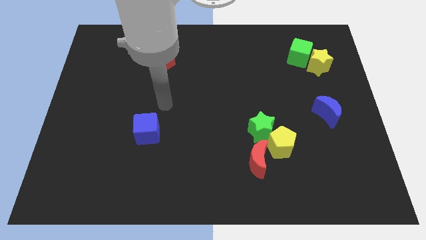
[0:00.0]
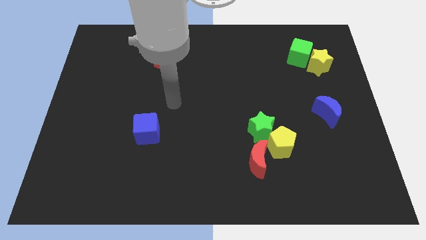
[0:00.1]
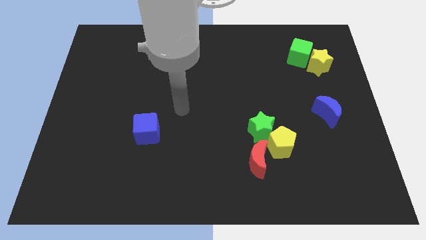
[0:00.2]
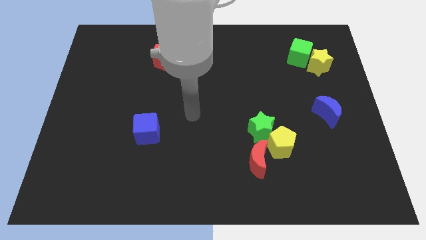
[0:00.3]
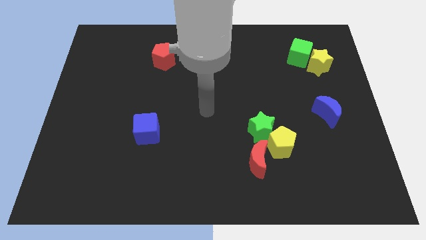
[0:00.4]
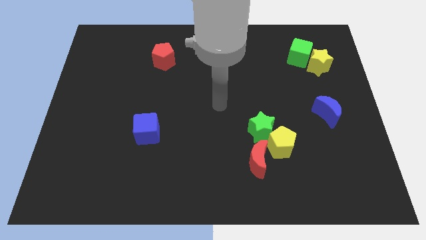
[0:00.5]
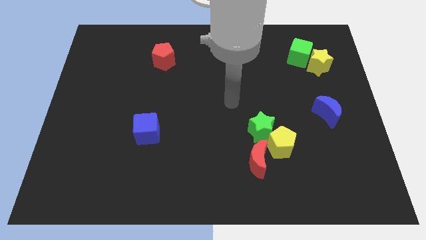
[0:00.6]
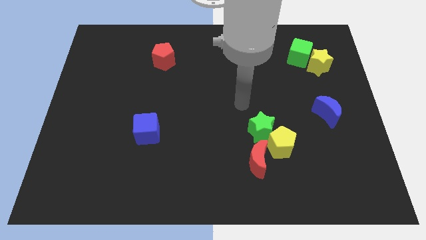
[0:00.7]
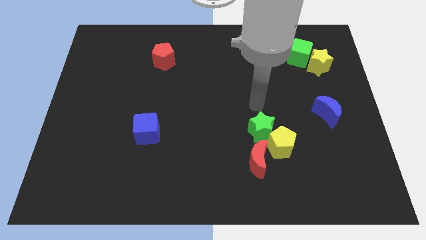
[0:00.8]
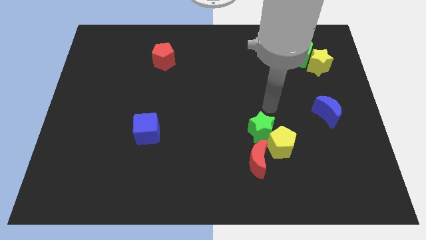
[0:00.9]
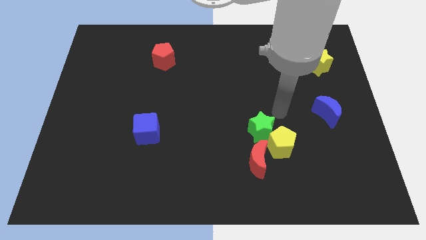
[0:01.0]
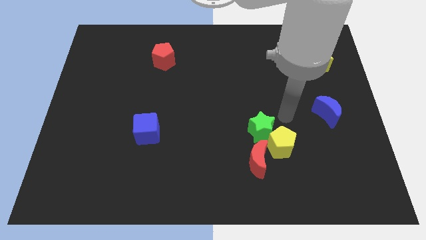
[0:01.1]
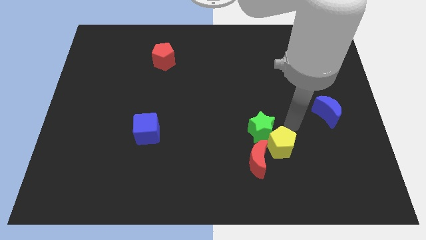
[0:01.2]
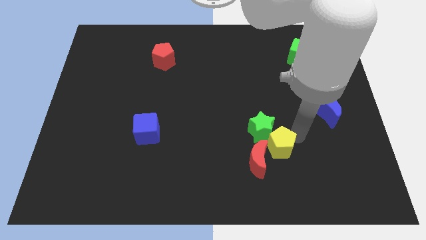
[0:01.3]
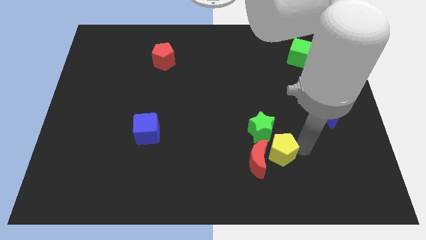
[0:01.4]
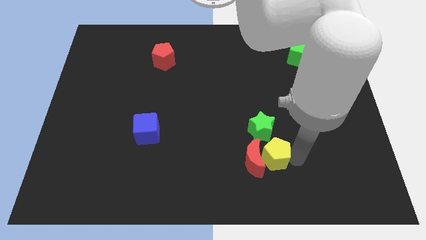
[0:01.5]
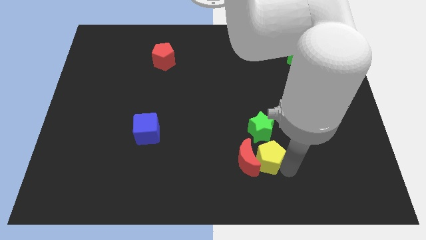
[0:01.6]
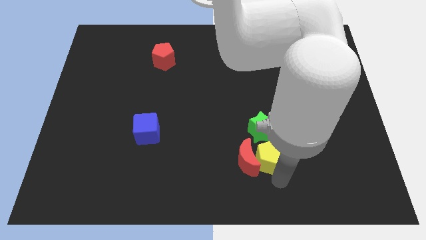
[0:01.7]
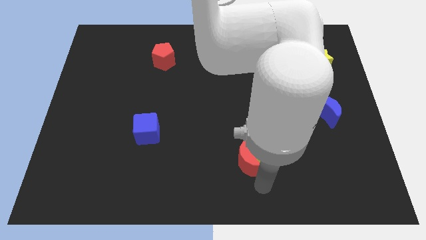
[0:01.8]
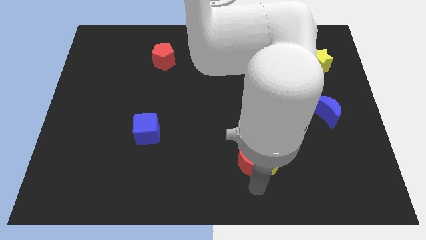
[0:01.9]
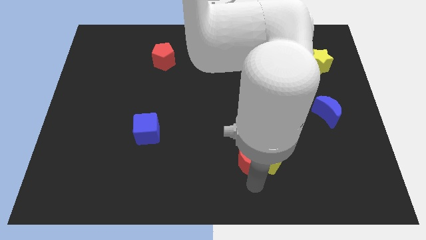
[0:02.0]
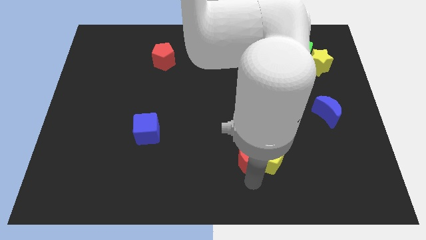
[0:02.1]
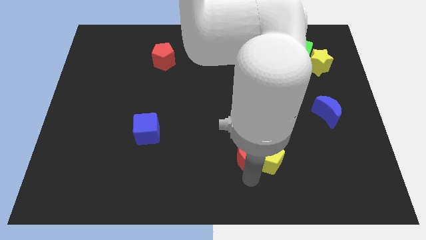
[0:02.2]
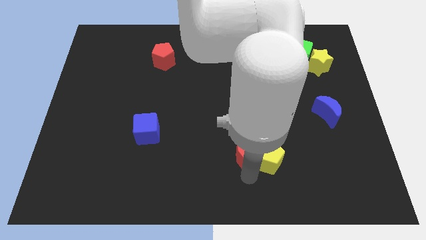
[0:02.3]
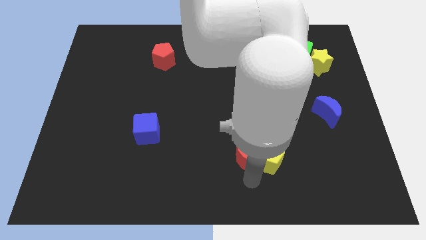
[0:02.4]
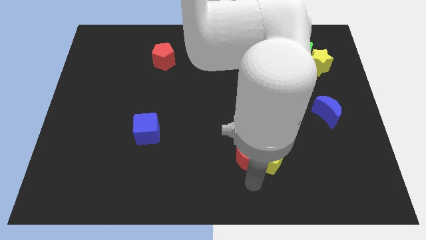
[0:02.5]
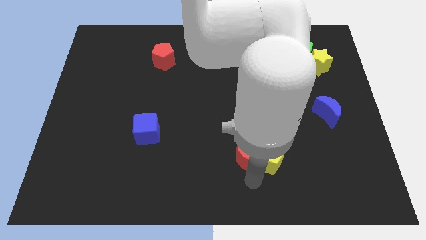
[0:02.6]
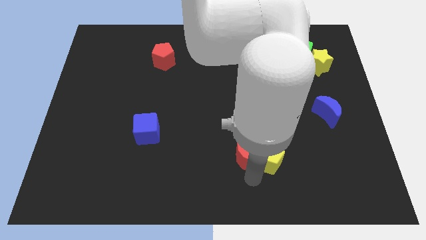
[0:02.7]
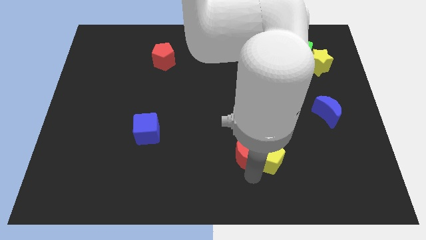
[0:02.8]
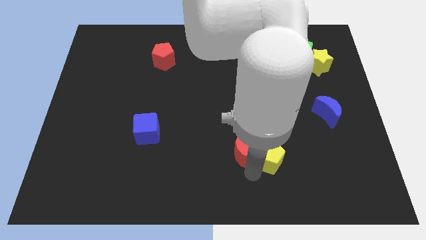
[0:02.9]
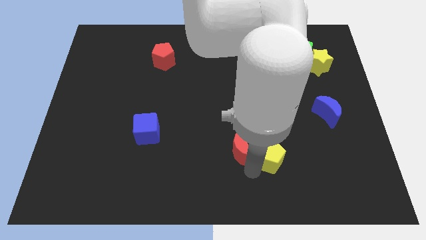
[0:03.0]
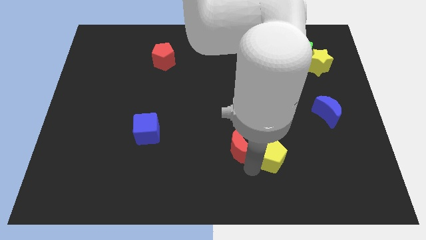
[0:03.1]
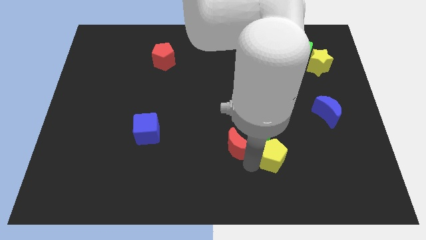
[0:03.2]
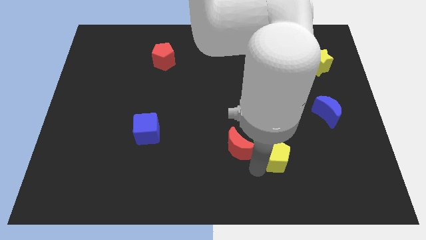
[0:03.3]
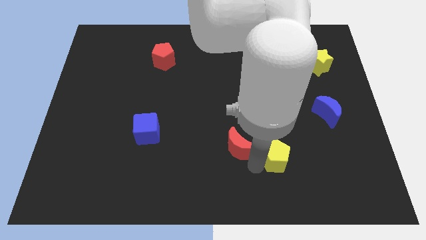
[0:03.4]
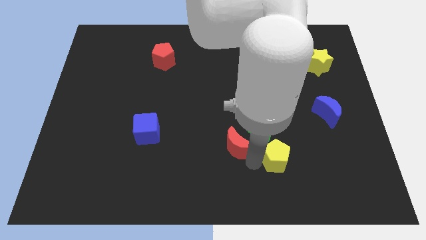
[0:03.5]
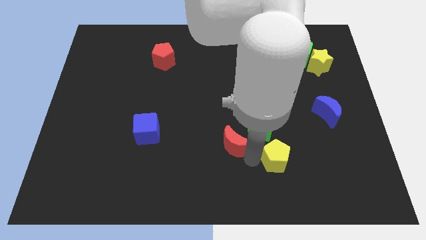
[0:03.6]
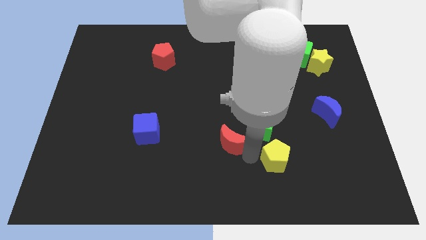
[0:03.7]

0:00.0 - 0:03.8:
push the red moon diagonally up and left somewhat

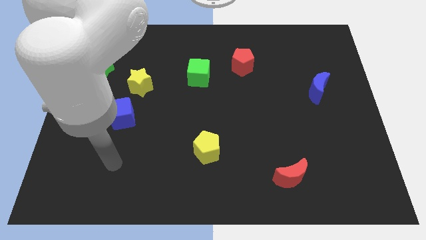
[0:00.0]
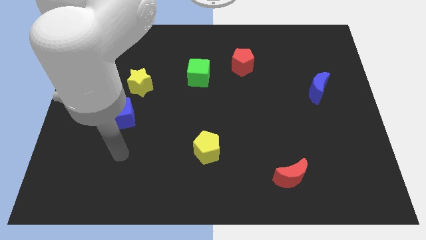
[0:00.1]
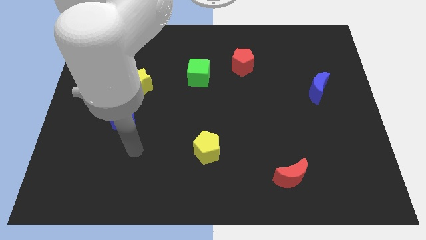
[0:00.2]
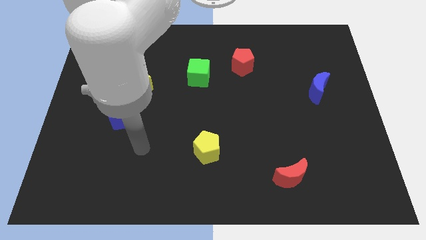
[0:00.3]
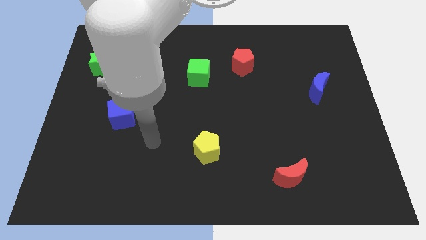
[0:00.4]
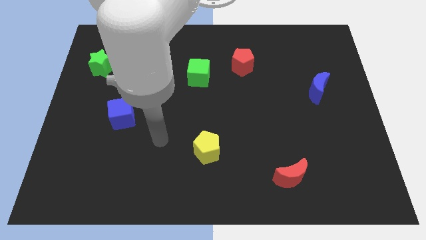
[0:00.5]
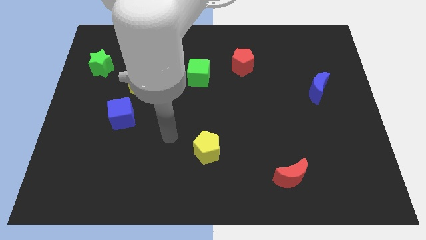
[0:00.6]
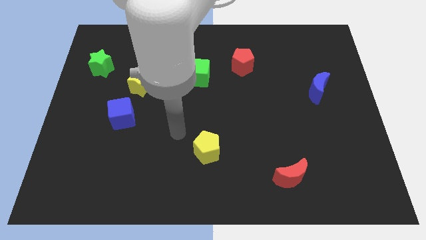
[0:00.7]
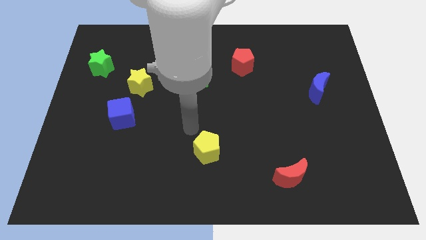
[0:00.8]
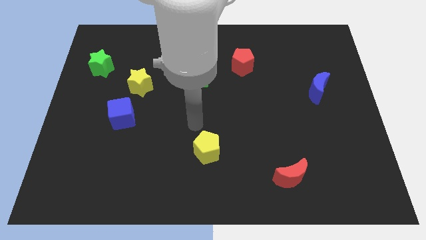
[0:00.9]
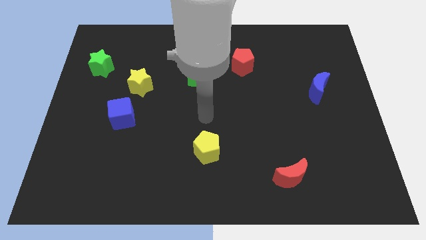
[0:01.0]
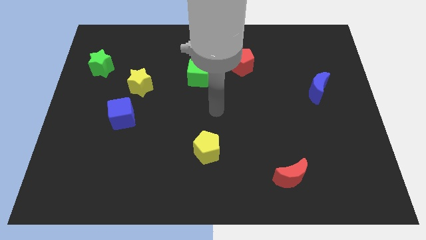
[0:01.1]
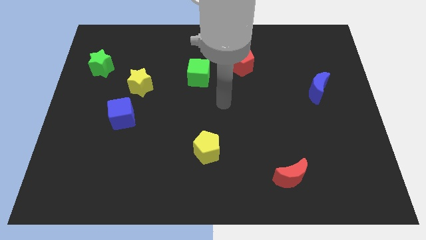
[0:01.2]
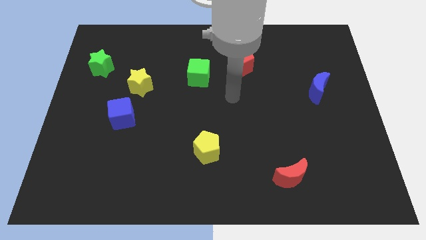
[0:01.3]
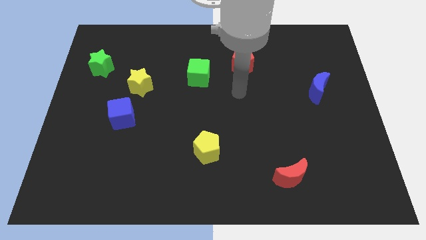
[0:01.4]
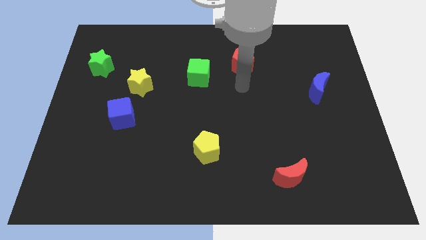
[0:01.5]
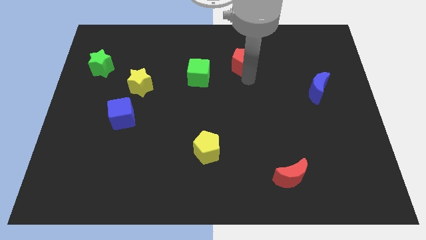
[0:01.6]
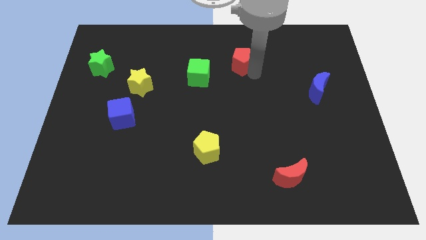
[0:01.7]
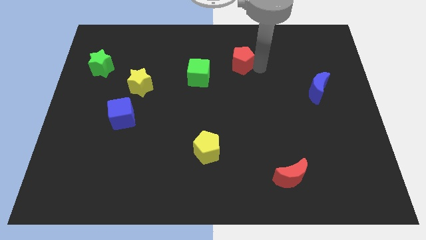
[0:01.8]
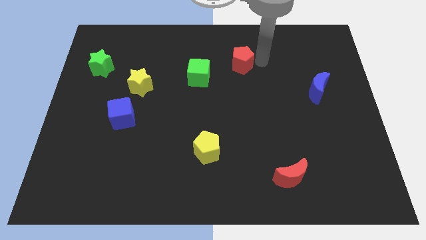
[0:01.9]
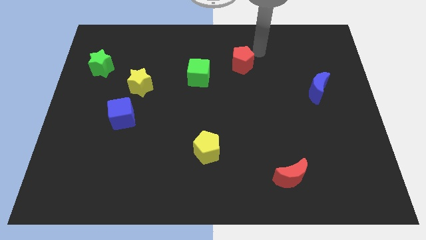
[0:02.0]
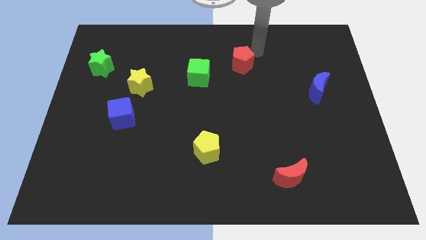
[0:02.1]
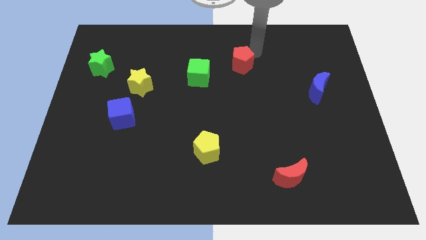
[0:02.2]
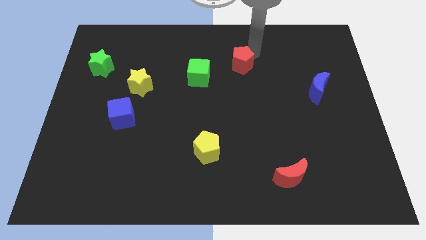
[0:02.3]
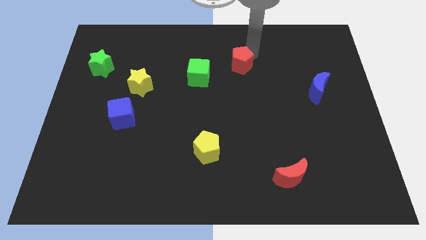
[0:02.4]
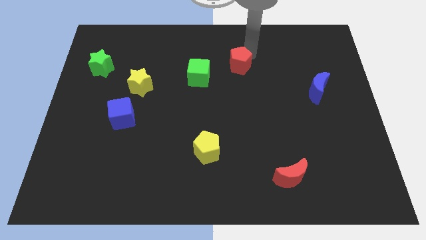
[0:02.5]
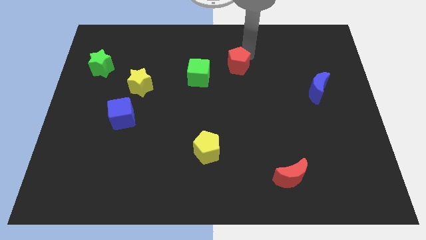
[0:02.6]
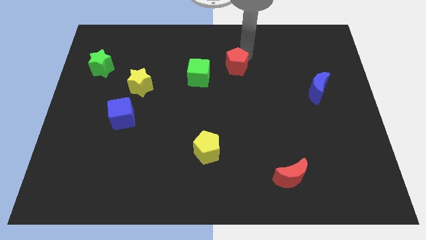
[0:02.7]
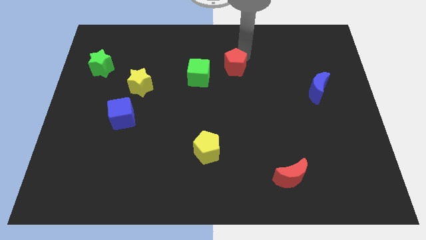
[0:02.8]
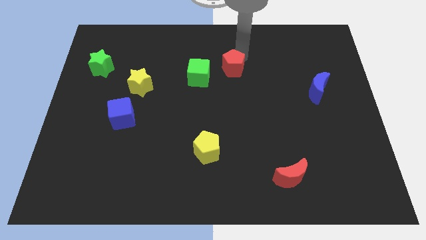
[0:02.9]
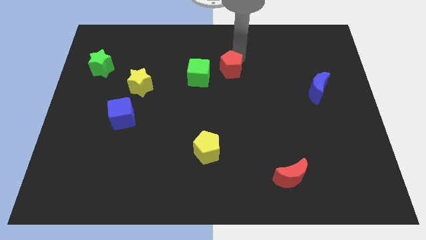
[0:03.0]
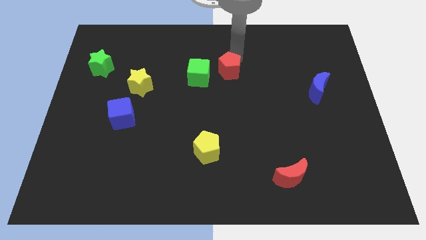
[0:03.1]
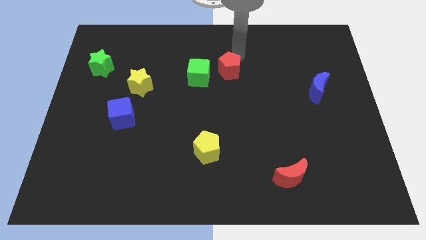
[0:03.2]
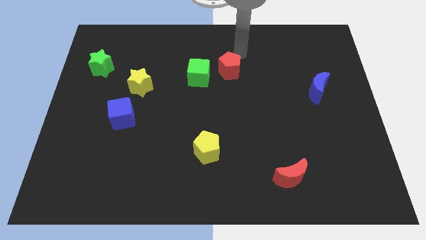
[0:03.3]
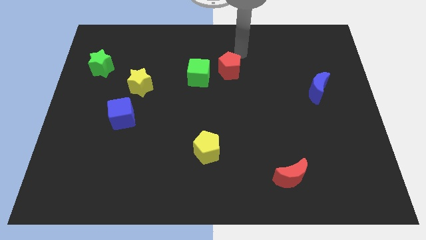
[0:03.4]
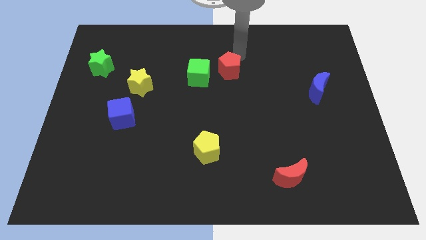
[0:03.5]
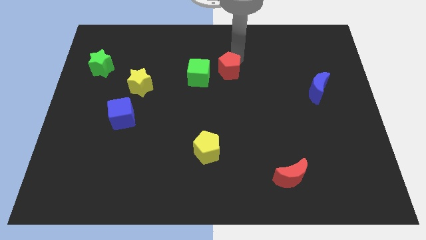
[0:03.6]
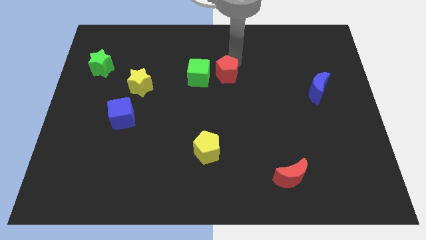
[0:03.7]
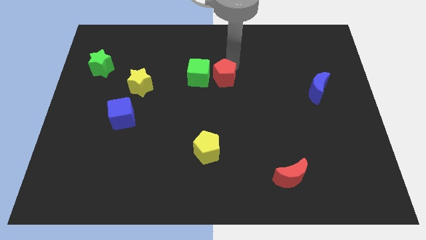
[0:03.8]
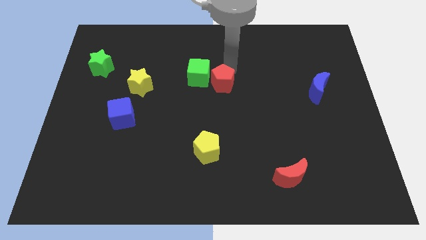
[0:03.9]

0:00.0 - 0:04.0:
slide the red pentagon somewhat diagonally down and left
